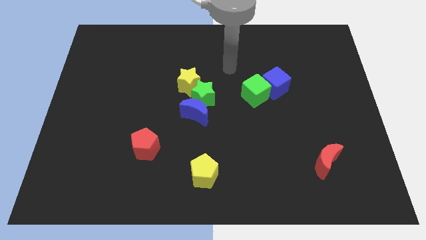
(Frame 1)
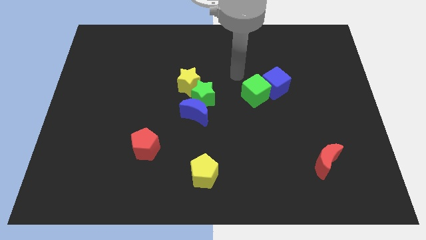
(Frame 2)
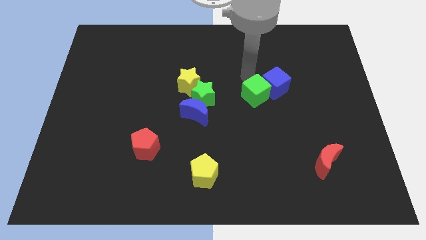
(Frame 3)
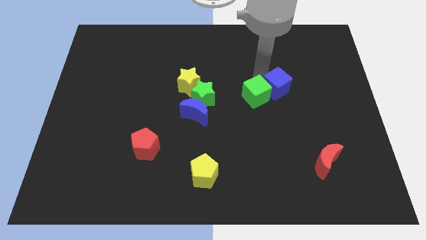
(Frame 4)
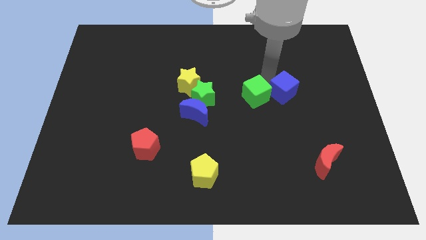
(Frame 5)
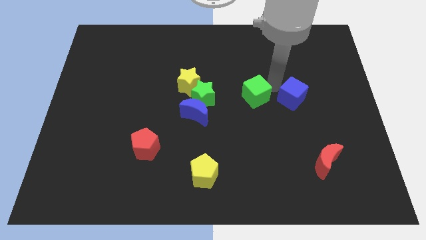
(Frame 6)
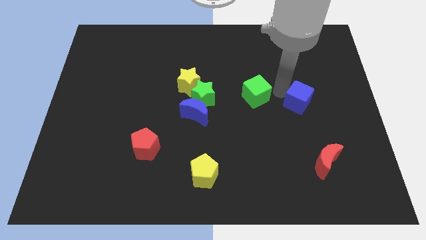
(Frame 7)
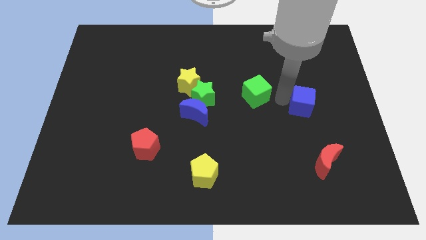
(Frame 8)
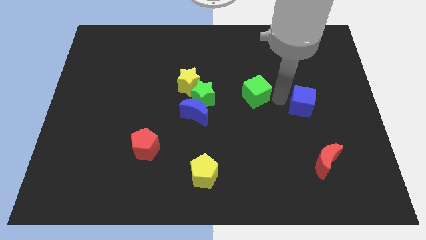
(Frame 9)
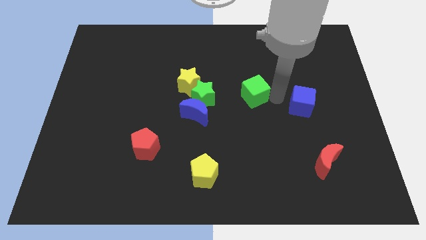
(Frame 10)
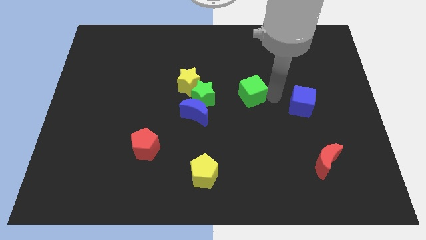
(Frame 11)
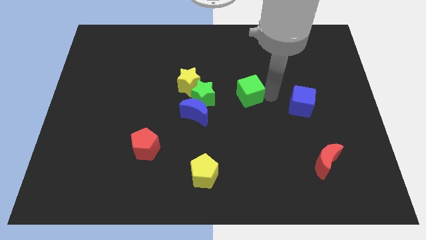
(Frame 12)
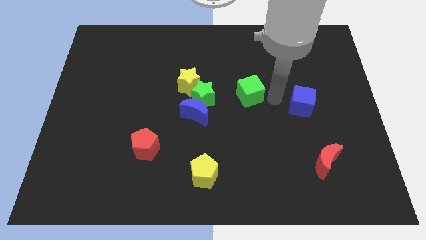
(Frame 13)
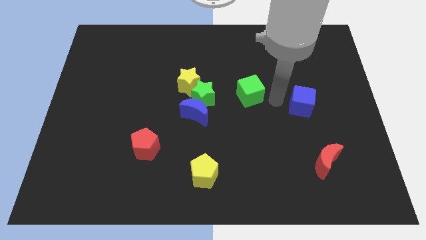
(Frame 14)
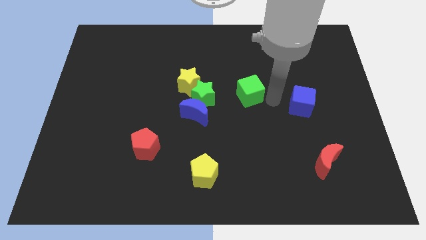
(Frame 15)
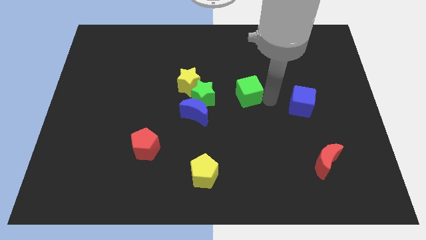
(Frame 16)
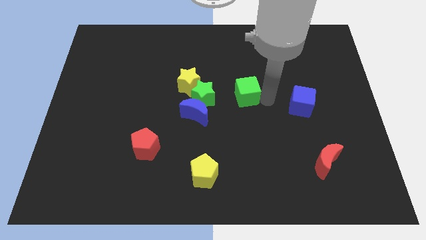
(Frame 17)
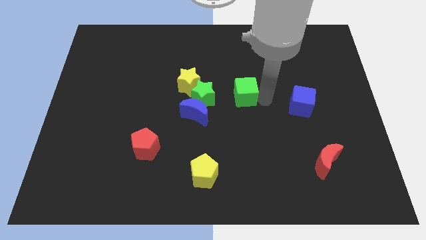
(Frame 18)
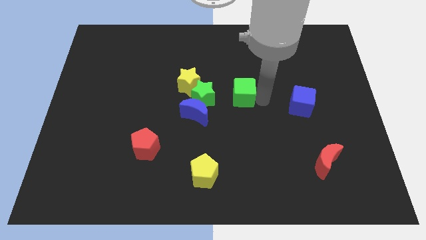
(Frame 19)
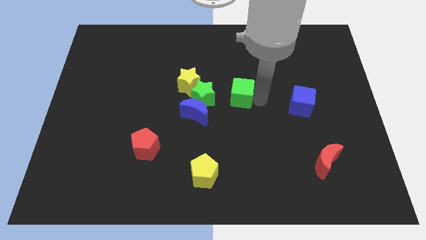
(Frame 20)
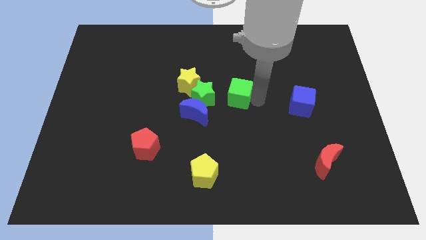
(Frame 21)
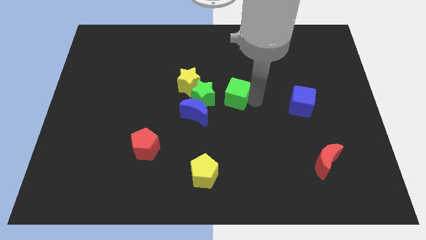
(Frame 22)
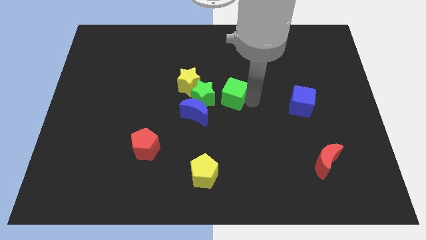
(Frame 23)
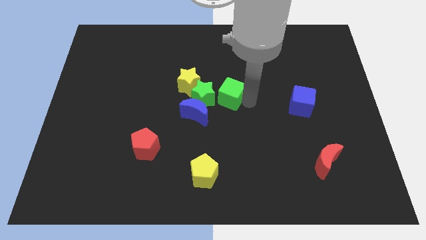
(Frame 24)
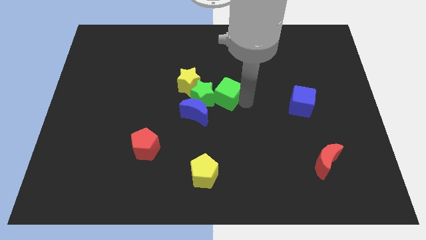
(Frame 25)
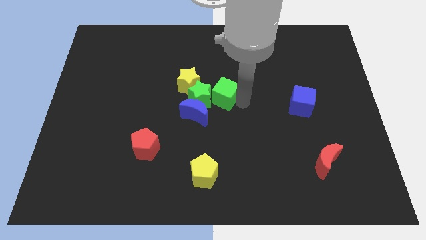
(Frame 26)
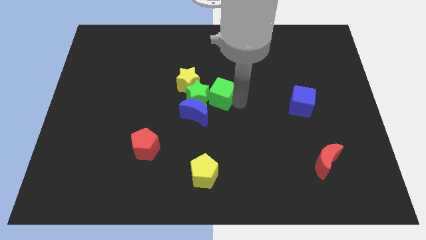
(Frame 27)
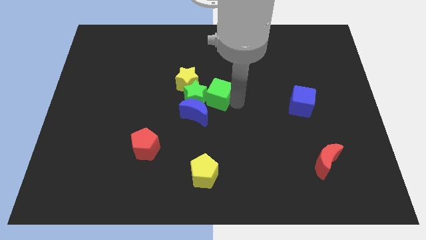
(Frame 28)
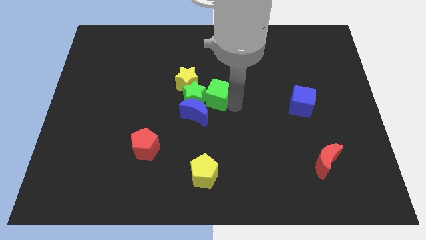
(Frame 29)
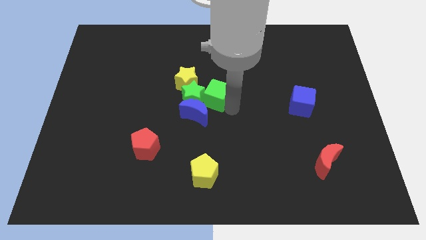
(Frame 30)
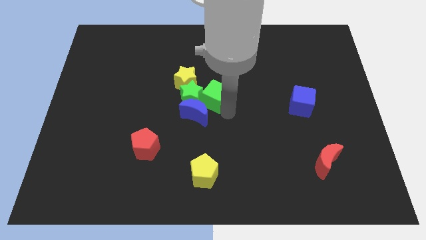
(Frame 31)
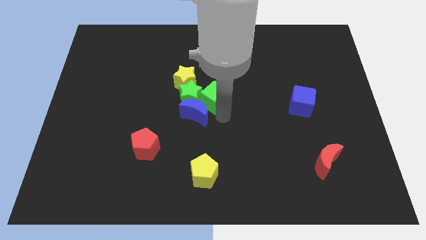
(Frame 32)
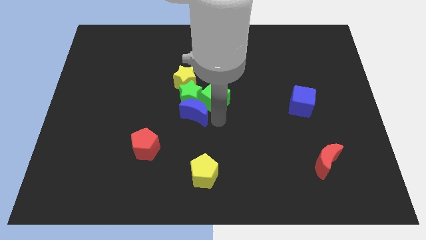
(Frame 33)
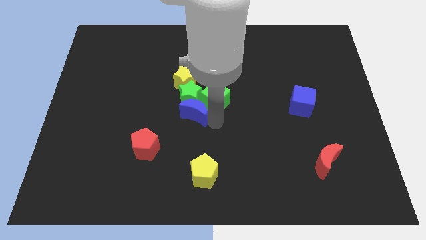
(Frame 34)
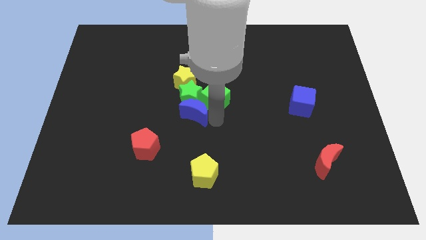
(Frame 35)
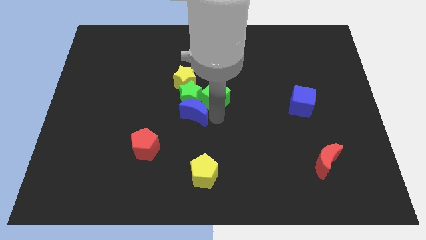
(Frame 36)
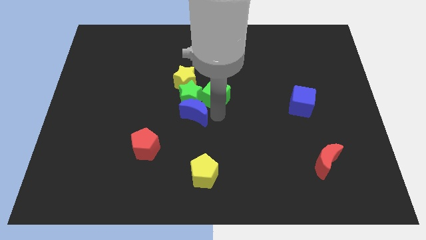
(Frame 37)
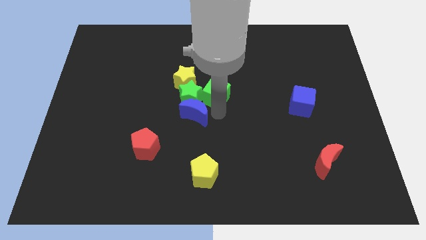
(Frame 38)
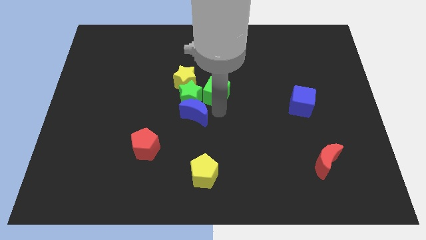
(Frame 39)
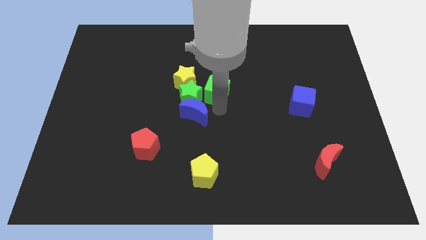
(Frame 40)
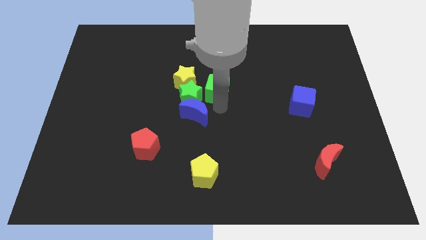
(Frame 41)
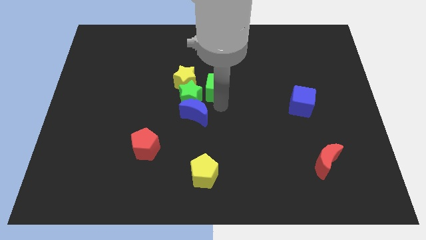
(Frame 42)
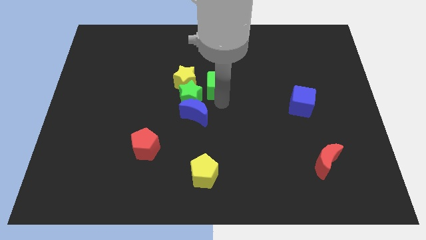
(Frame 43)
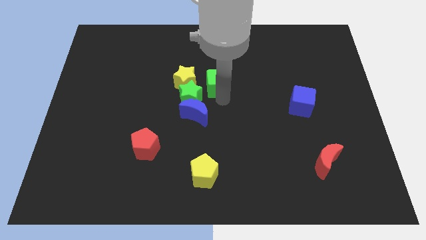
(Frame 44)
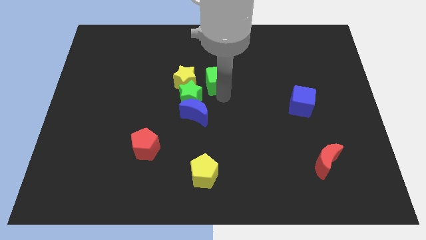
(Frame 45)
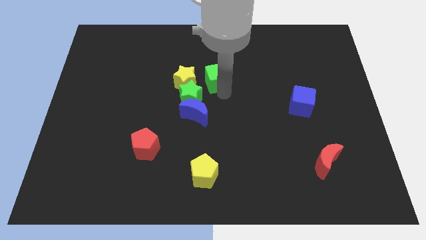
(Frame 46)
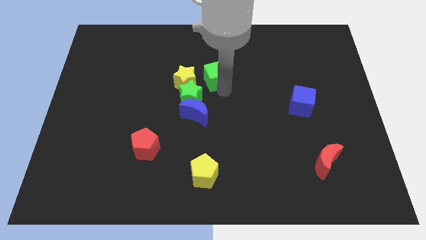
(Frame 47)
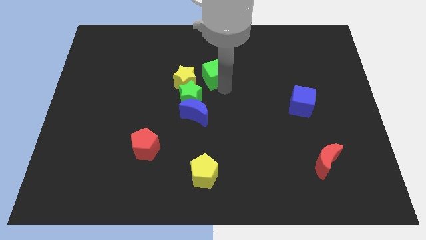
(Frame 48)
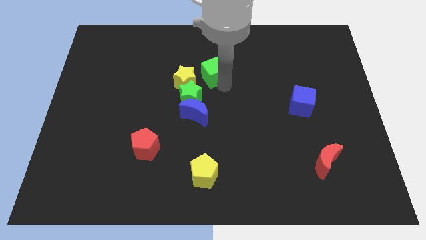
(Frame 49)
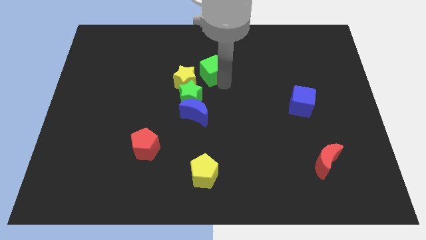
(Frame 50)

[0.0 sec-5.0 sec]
move the green cube to the top of the green star

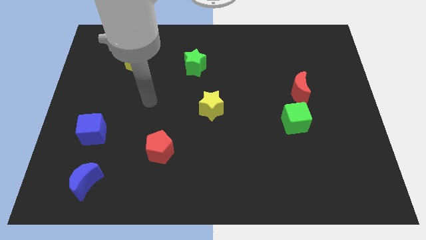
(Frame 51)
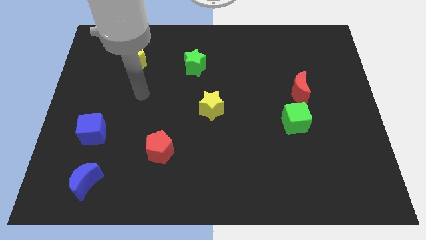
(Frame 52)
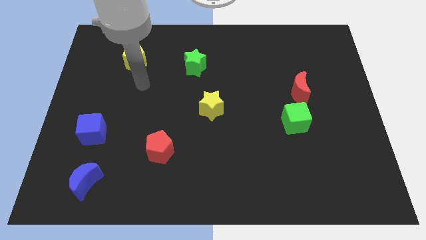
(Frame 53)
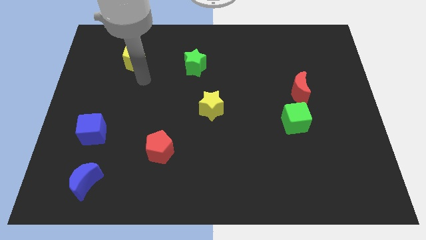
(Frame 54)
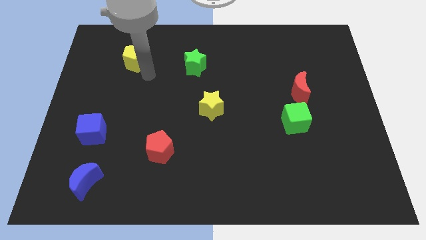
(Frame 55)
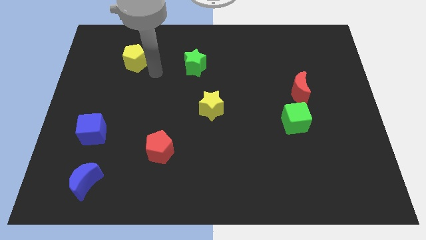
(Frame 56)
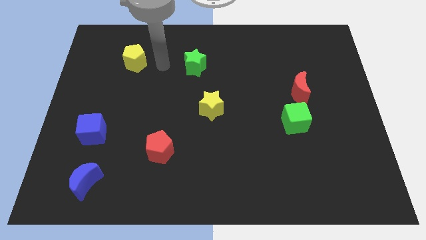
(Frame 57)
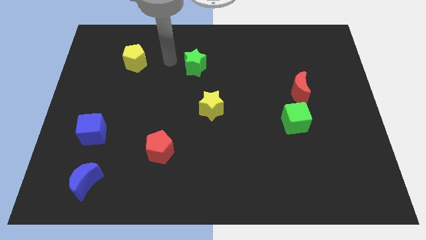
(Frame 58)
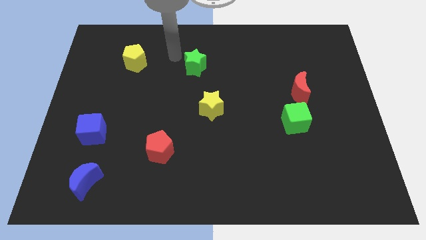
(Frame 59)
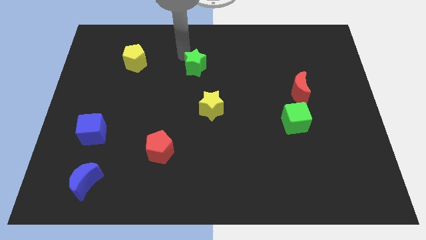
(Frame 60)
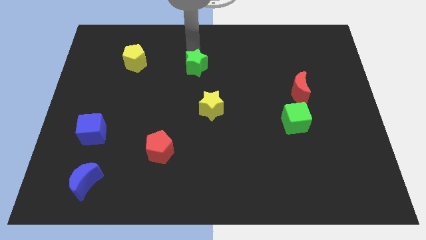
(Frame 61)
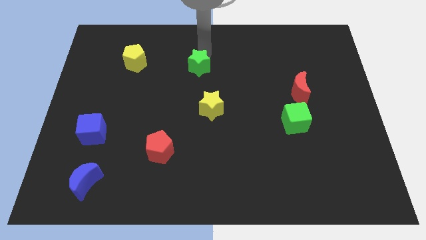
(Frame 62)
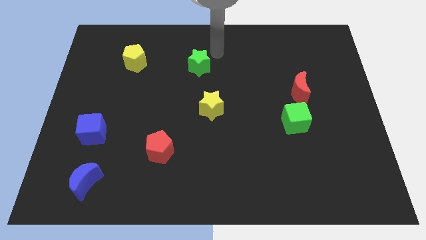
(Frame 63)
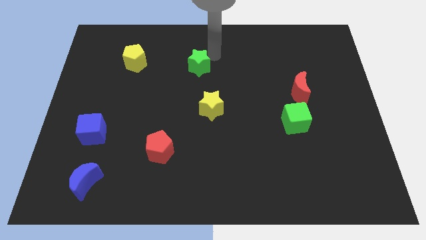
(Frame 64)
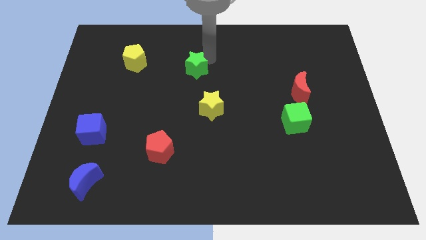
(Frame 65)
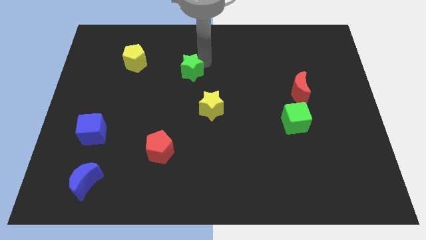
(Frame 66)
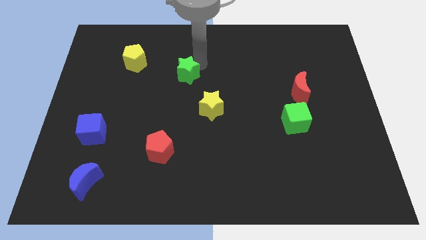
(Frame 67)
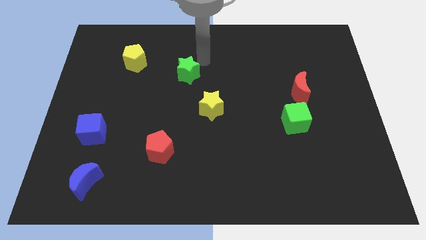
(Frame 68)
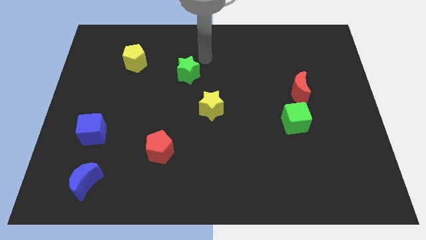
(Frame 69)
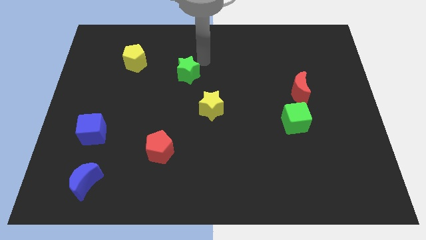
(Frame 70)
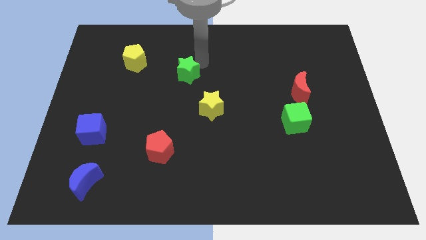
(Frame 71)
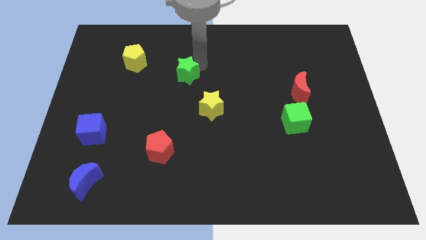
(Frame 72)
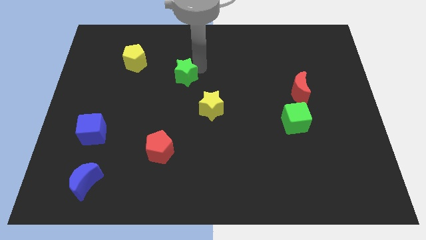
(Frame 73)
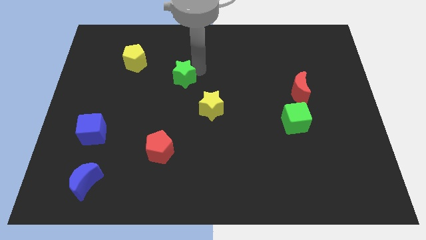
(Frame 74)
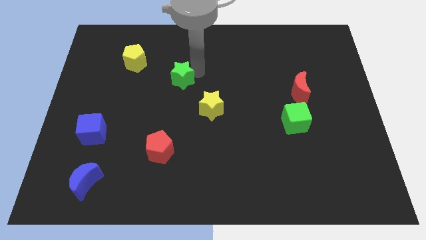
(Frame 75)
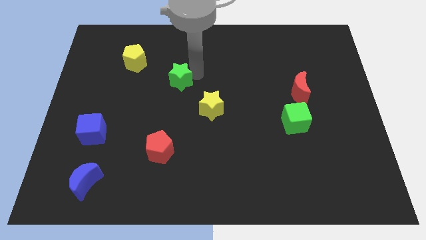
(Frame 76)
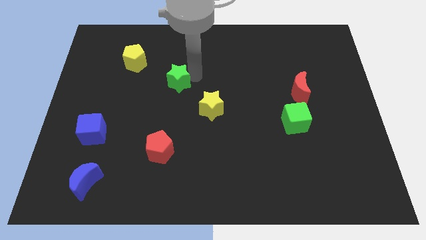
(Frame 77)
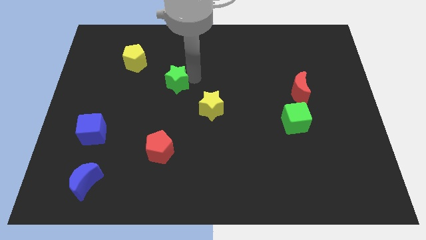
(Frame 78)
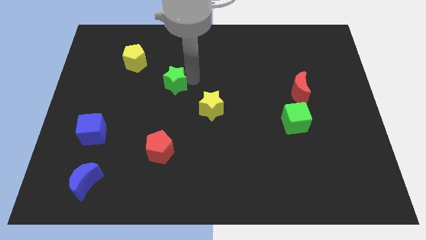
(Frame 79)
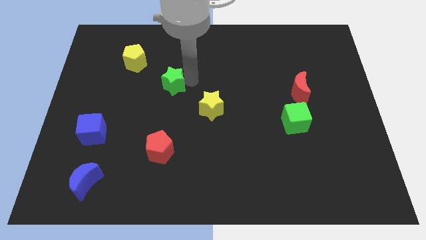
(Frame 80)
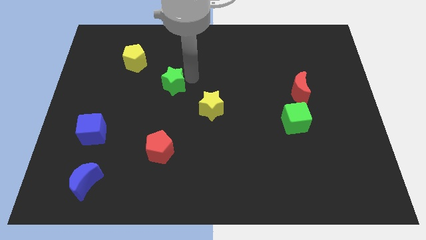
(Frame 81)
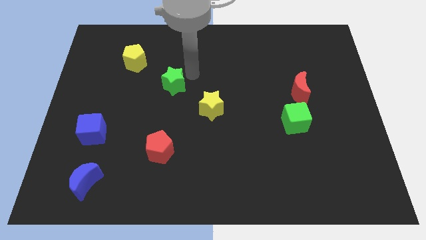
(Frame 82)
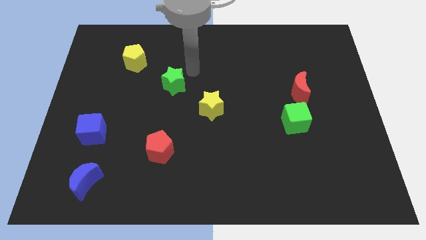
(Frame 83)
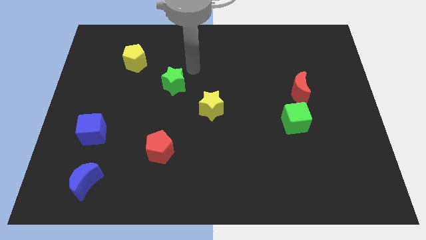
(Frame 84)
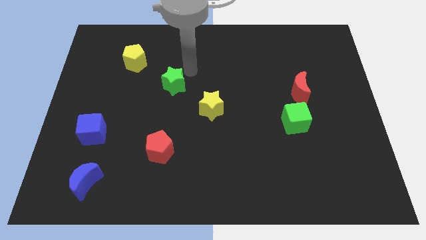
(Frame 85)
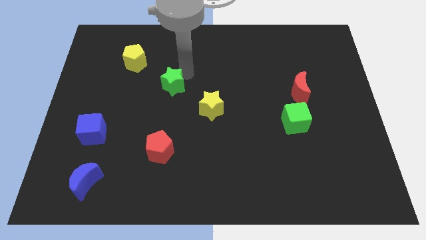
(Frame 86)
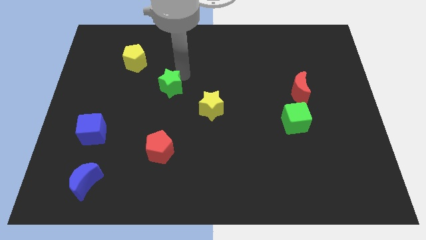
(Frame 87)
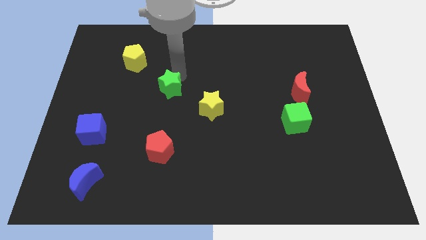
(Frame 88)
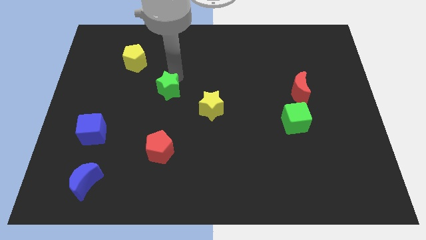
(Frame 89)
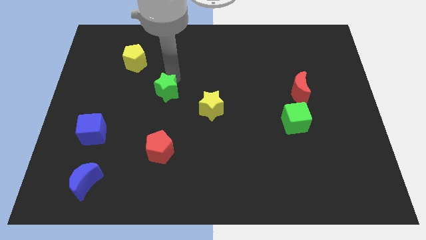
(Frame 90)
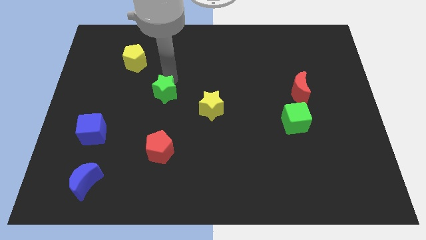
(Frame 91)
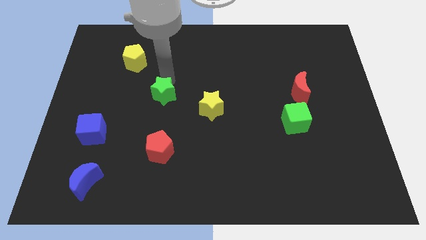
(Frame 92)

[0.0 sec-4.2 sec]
move the green star above the red pentagon
